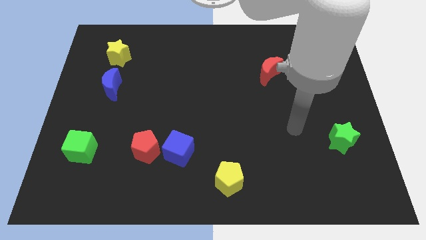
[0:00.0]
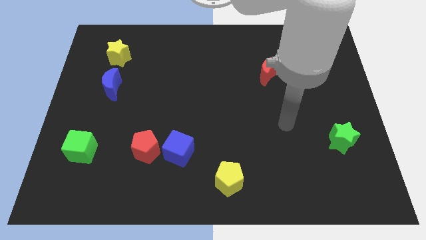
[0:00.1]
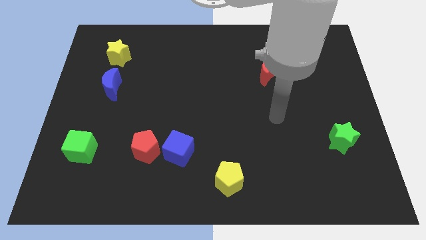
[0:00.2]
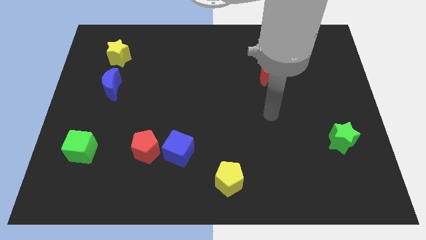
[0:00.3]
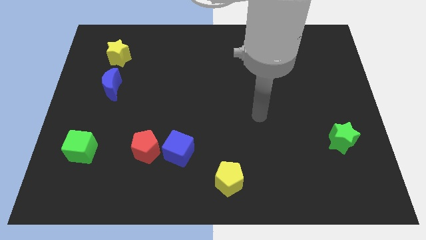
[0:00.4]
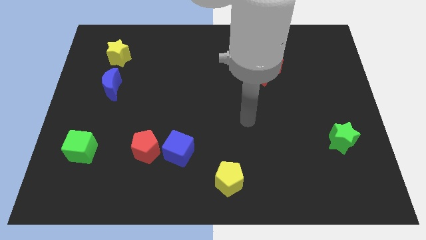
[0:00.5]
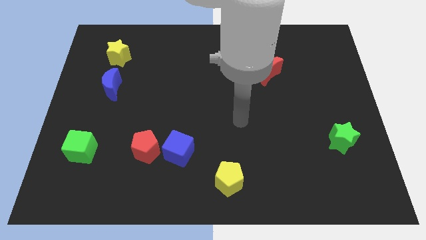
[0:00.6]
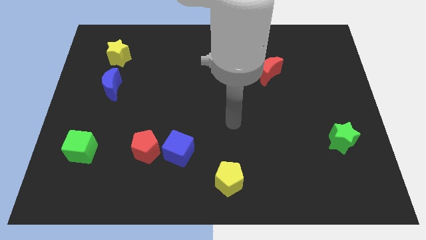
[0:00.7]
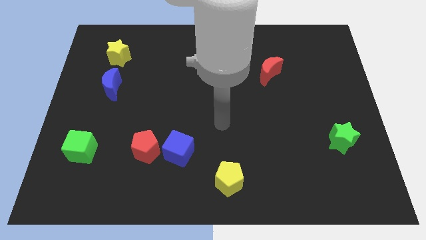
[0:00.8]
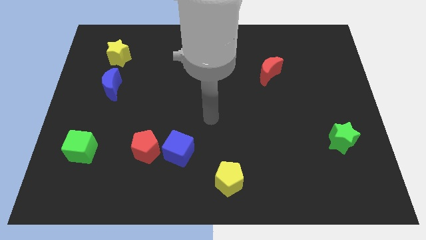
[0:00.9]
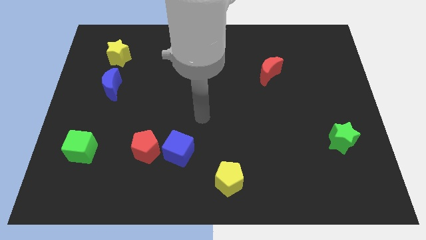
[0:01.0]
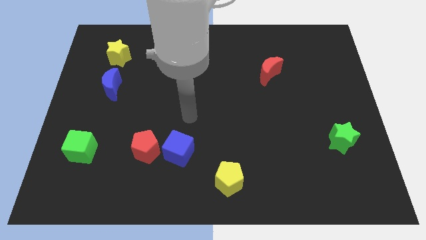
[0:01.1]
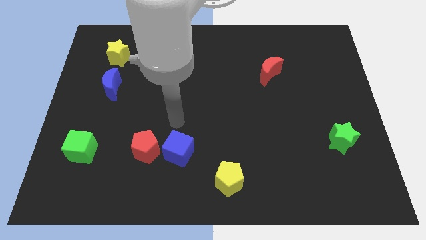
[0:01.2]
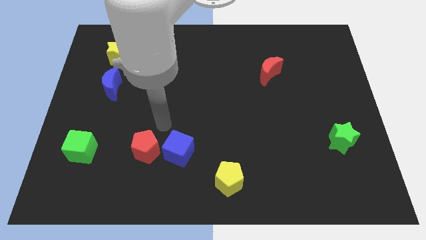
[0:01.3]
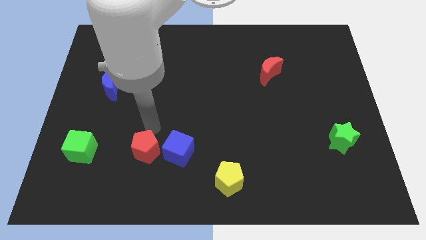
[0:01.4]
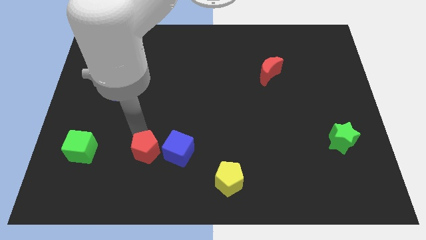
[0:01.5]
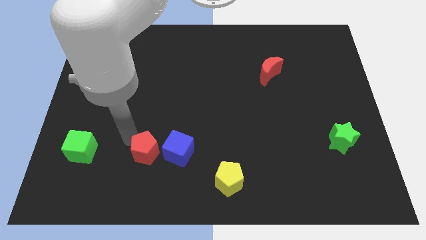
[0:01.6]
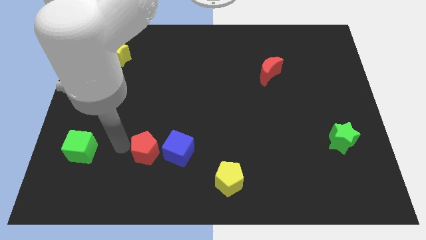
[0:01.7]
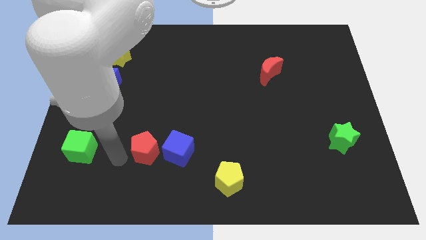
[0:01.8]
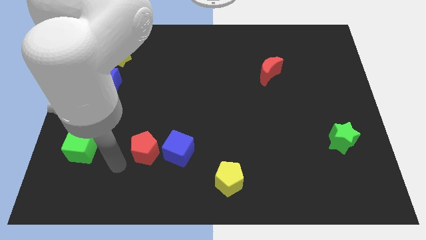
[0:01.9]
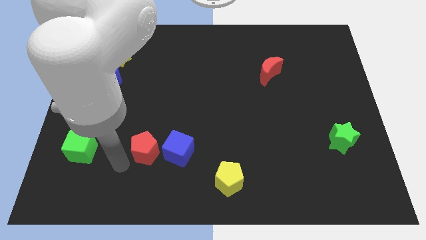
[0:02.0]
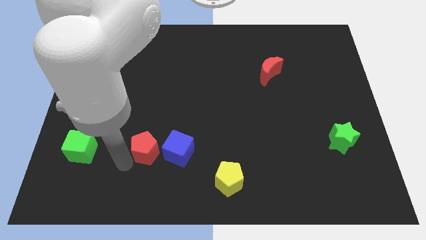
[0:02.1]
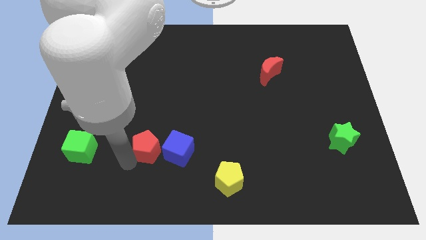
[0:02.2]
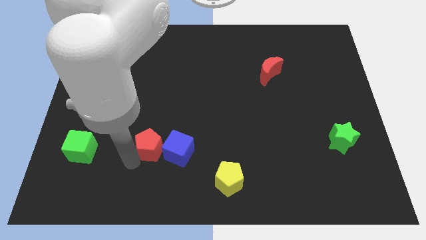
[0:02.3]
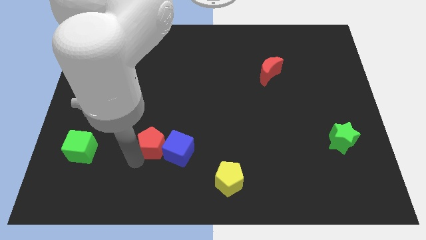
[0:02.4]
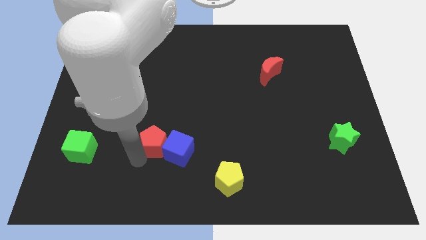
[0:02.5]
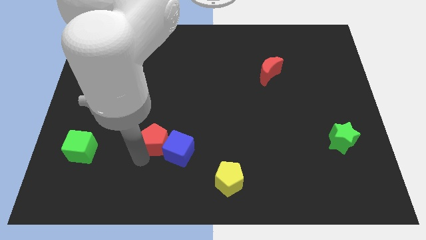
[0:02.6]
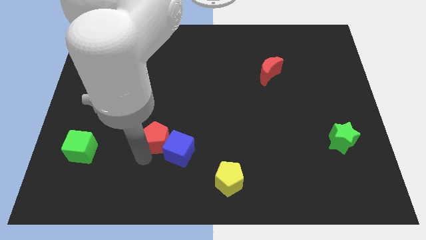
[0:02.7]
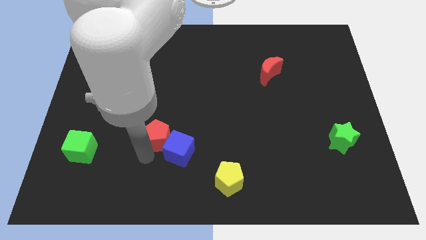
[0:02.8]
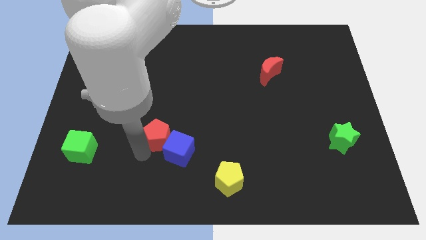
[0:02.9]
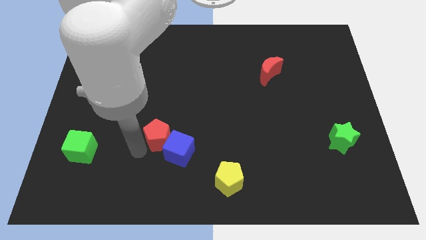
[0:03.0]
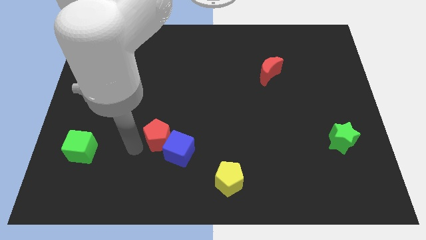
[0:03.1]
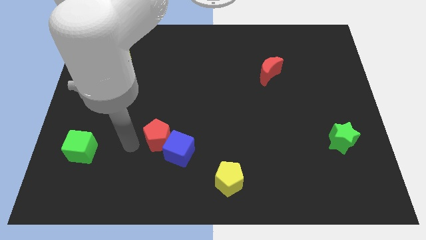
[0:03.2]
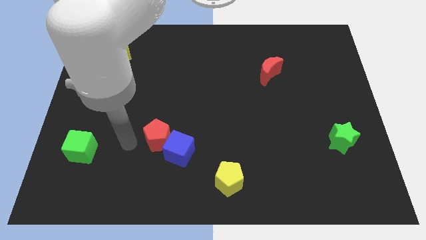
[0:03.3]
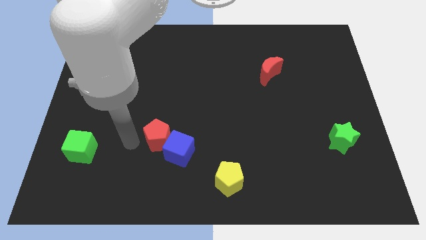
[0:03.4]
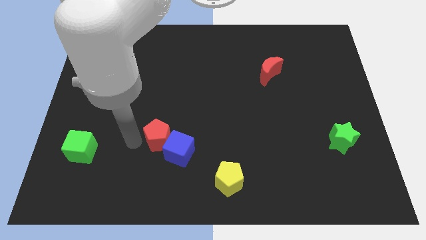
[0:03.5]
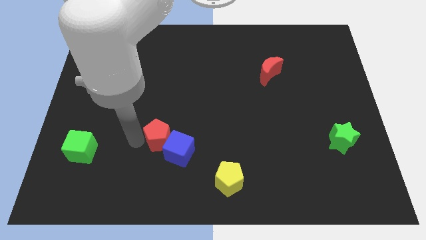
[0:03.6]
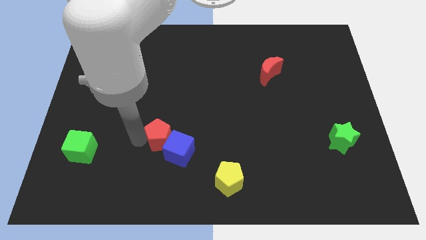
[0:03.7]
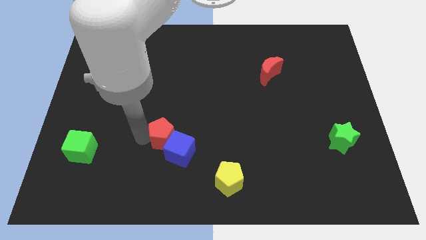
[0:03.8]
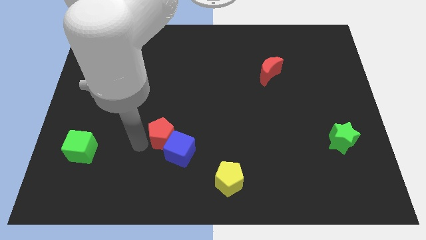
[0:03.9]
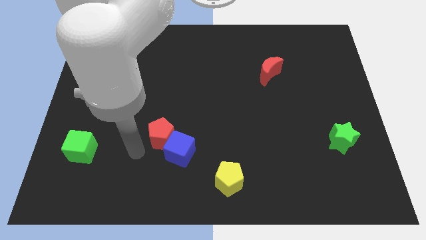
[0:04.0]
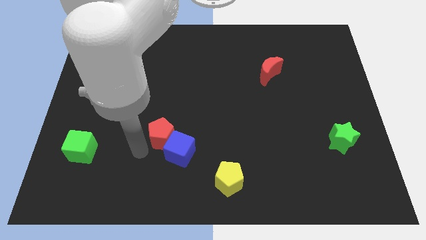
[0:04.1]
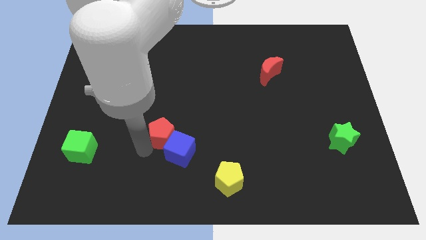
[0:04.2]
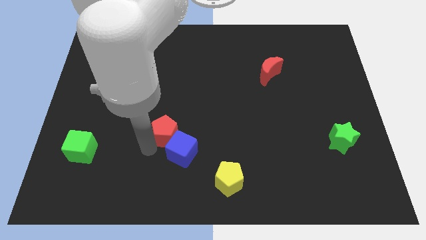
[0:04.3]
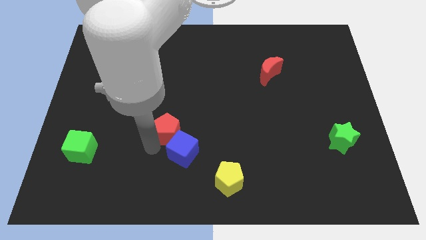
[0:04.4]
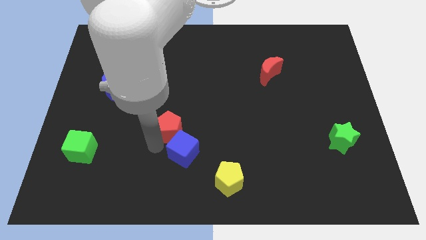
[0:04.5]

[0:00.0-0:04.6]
push the red pentagon a bit up and right diagonally

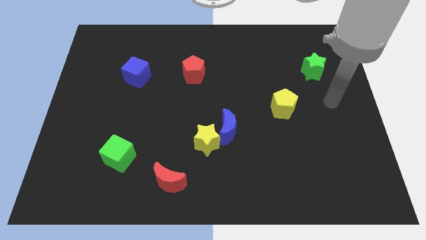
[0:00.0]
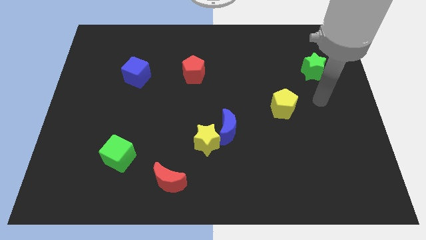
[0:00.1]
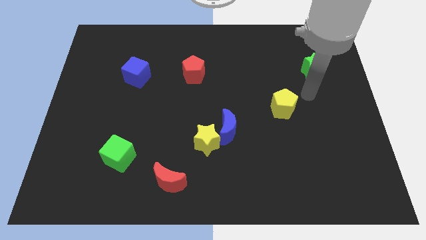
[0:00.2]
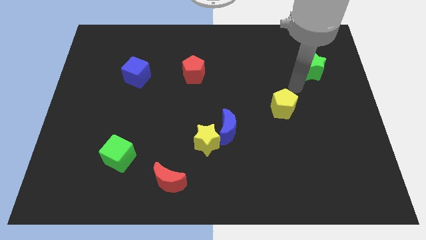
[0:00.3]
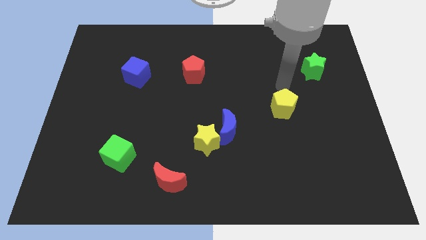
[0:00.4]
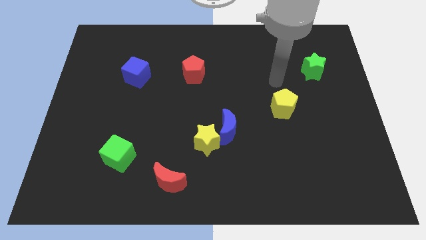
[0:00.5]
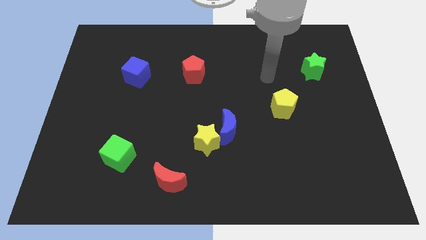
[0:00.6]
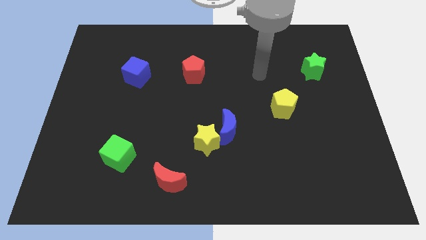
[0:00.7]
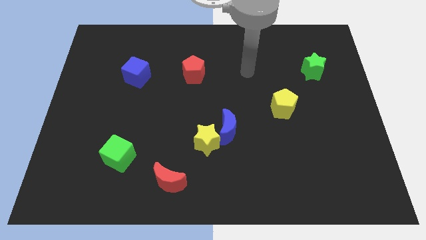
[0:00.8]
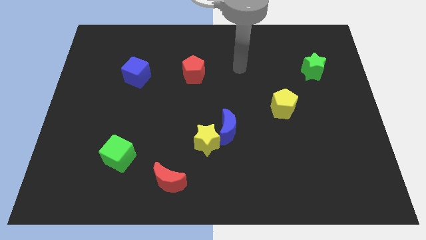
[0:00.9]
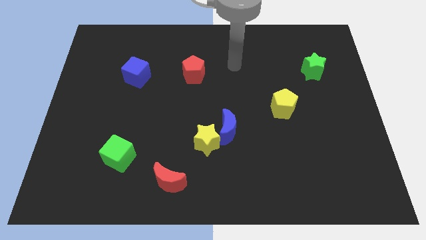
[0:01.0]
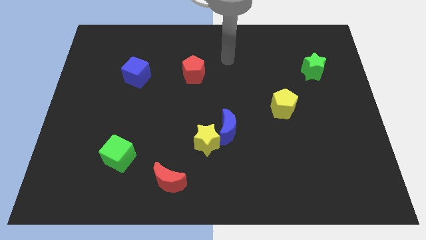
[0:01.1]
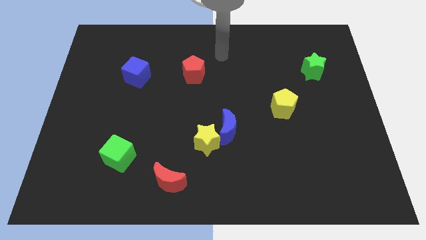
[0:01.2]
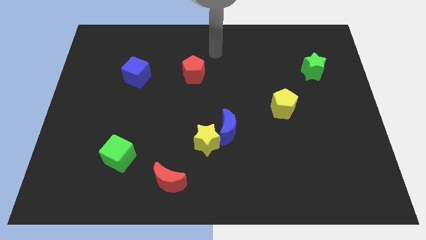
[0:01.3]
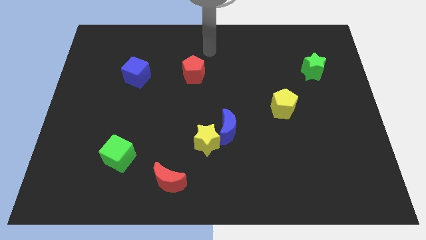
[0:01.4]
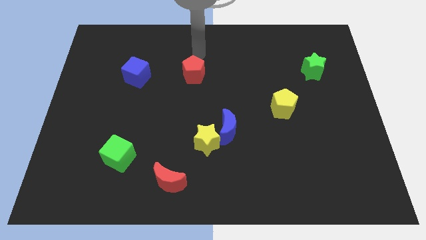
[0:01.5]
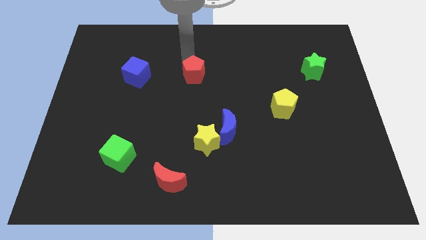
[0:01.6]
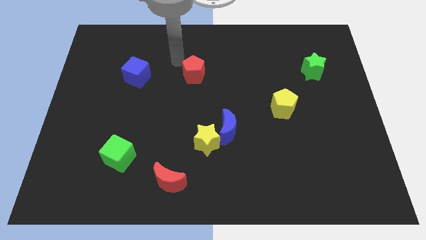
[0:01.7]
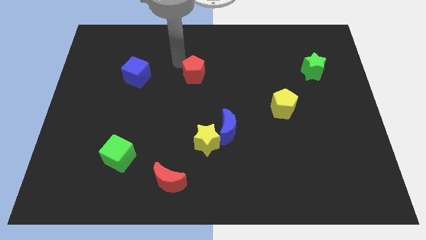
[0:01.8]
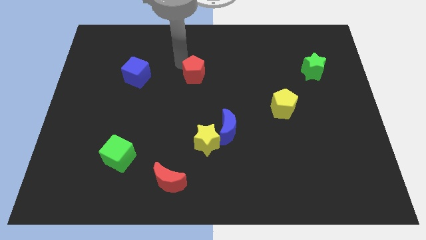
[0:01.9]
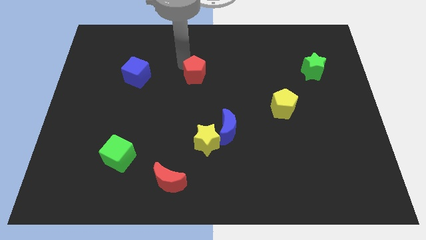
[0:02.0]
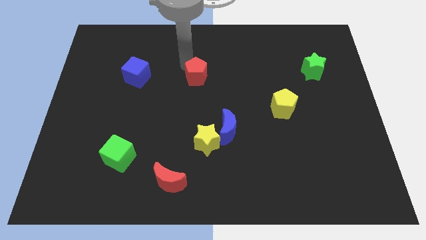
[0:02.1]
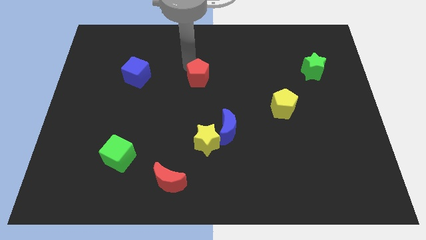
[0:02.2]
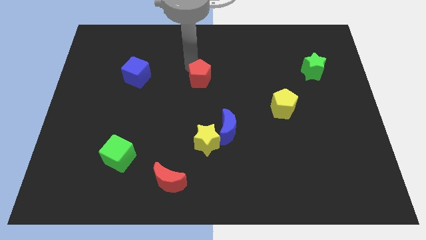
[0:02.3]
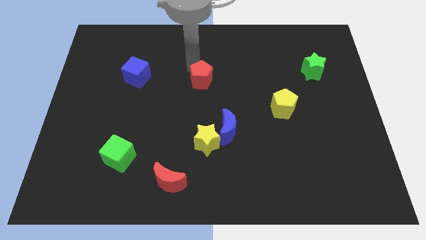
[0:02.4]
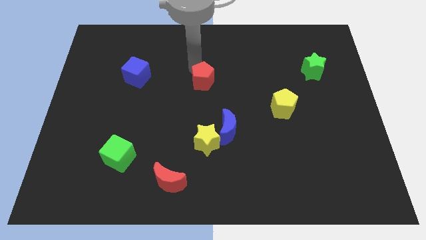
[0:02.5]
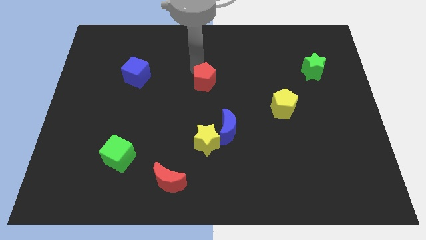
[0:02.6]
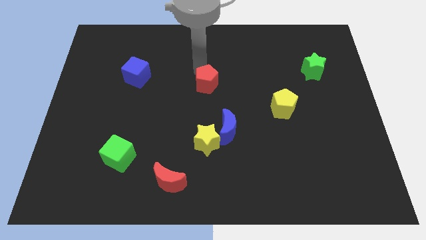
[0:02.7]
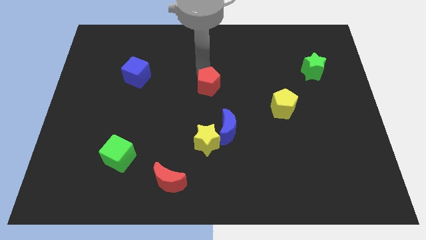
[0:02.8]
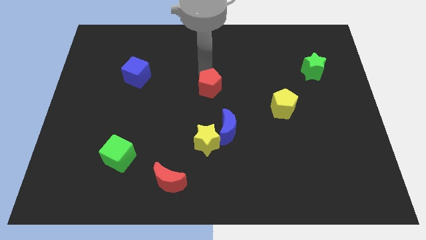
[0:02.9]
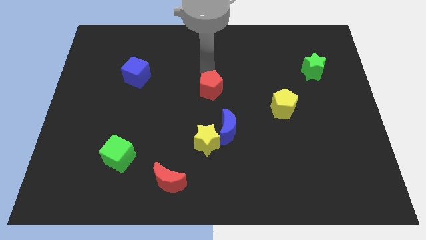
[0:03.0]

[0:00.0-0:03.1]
slightly slide the red pentagon down and then to the right

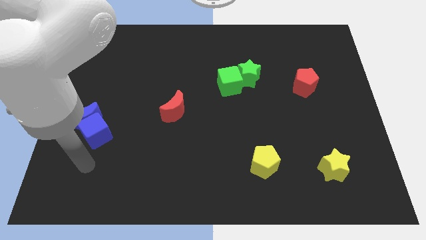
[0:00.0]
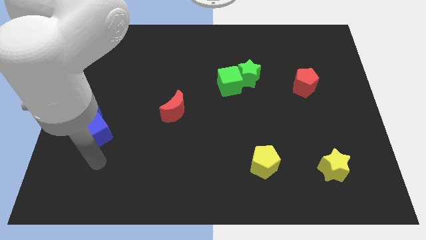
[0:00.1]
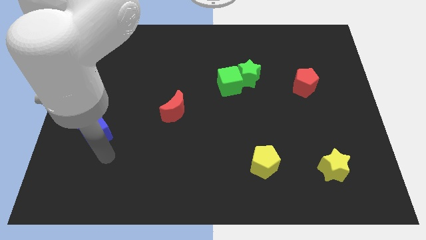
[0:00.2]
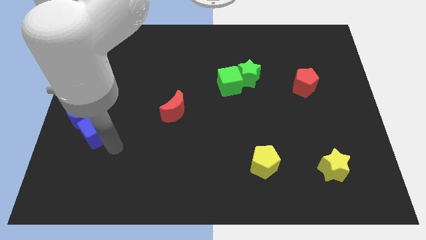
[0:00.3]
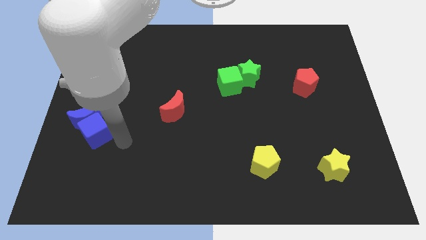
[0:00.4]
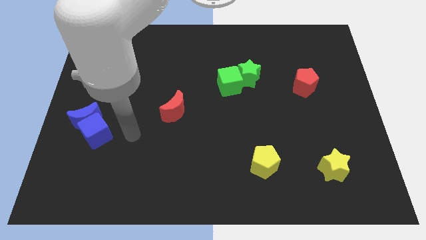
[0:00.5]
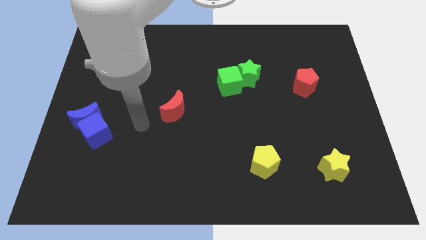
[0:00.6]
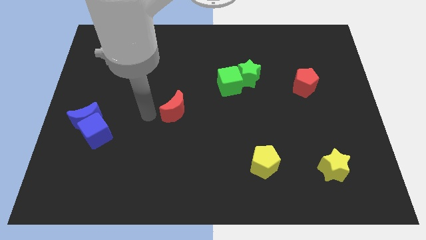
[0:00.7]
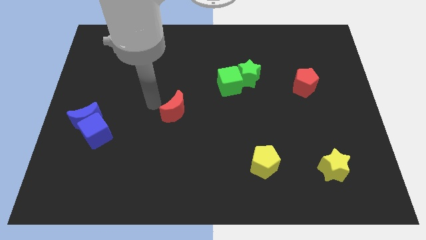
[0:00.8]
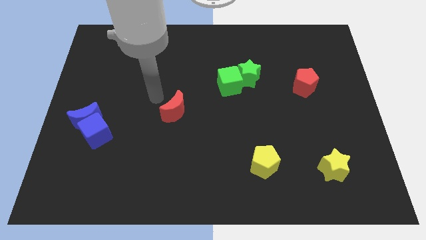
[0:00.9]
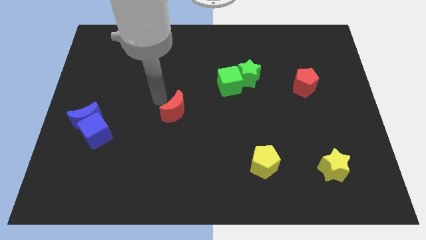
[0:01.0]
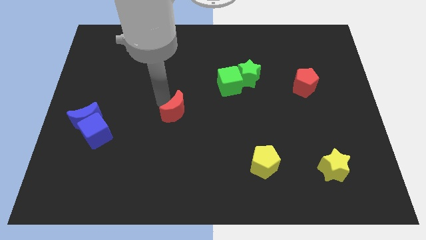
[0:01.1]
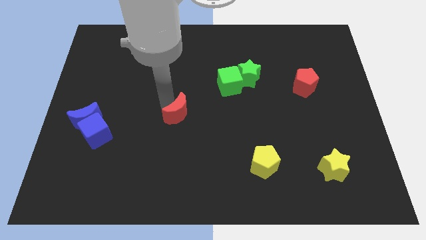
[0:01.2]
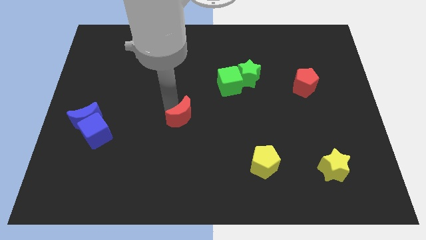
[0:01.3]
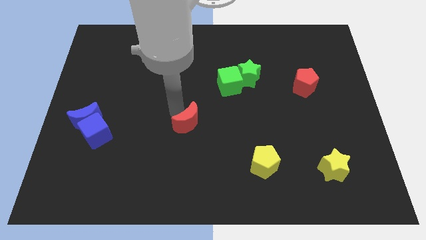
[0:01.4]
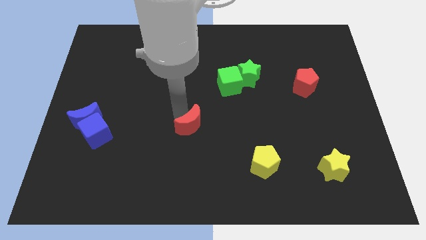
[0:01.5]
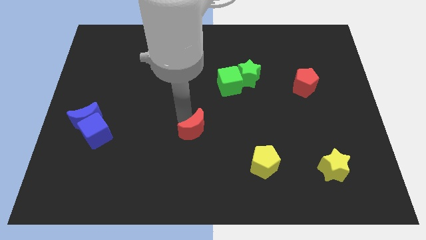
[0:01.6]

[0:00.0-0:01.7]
move the red moon down and then right a bit
